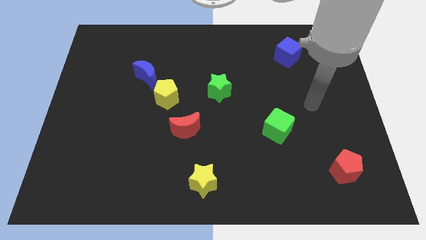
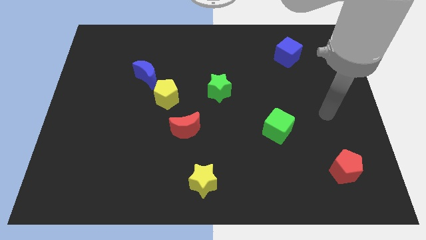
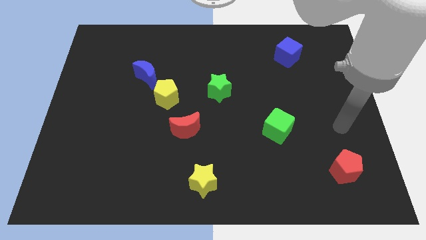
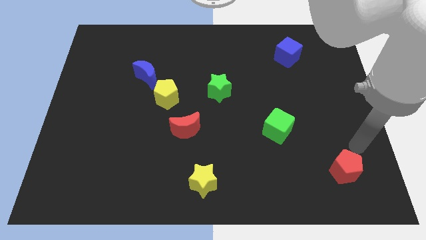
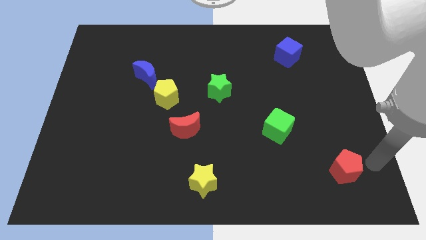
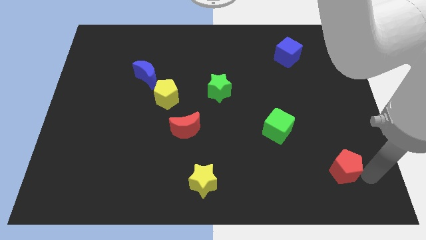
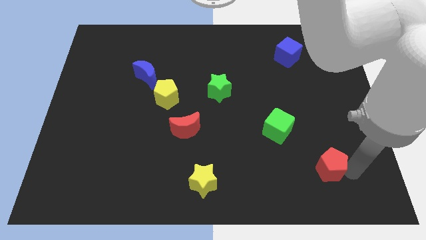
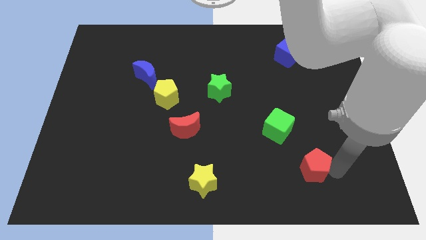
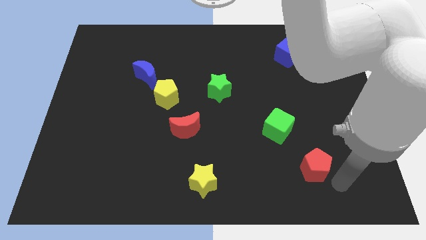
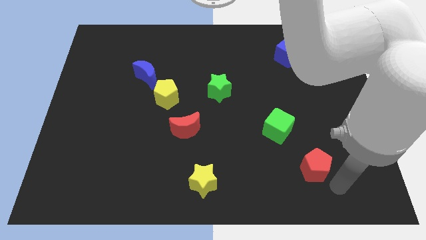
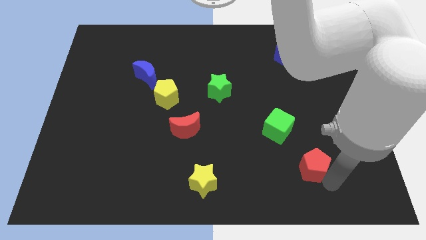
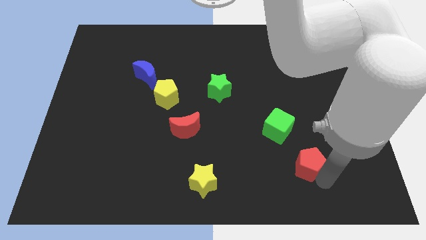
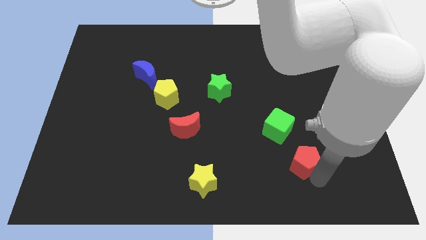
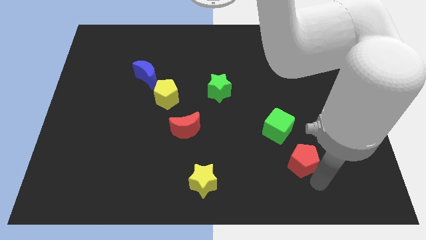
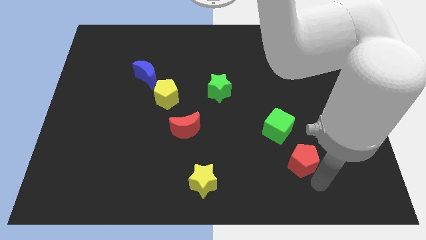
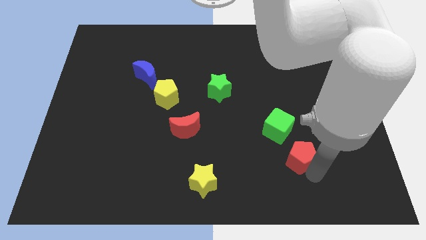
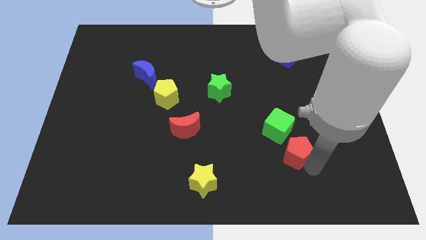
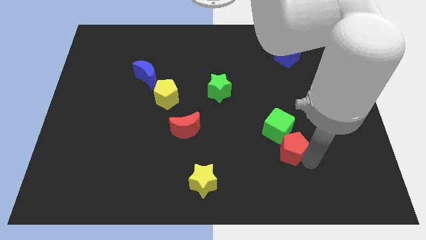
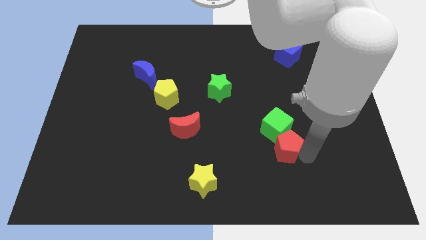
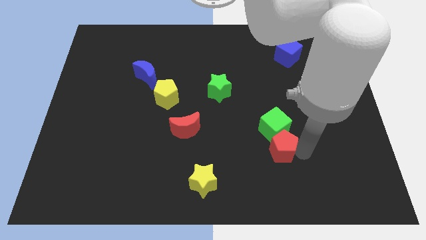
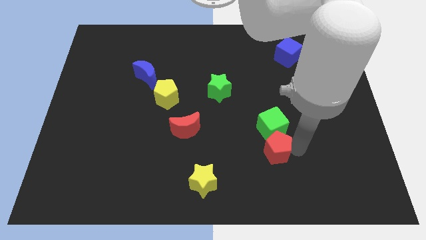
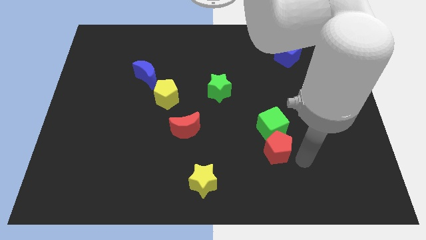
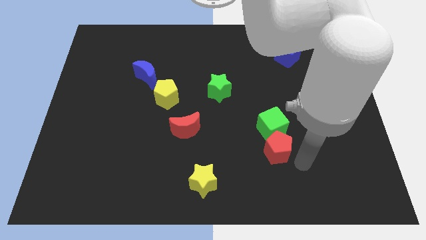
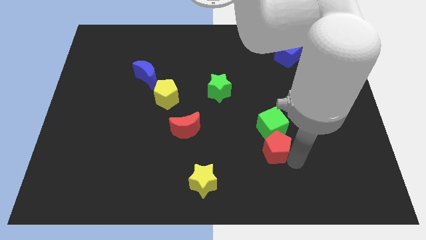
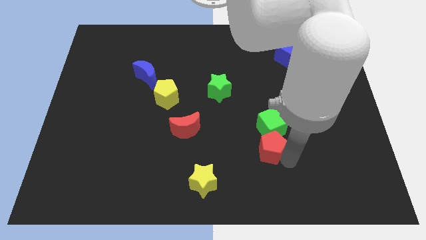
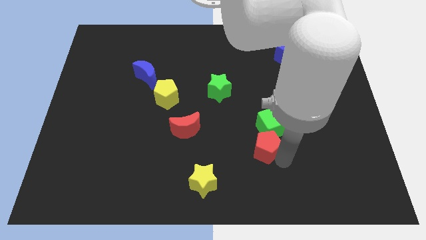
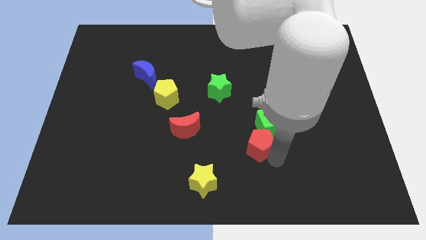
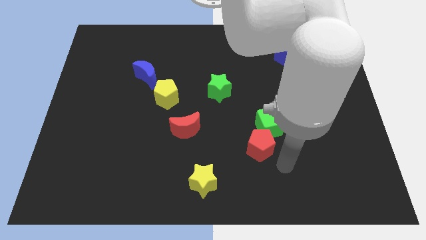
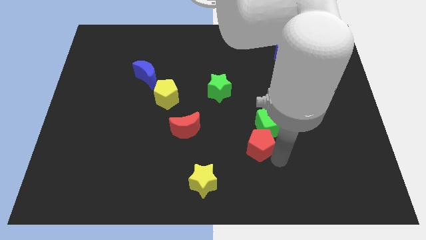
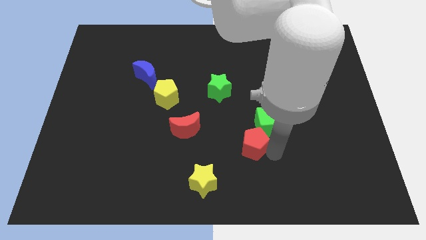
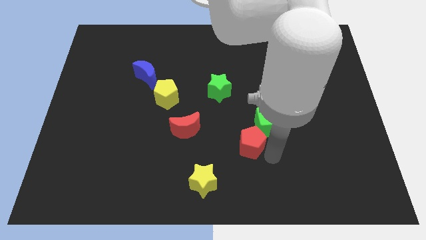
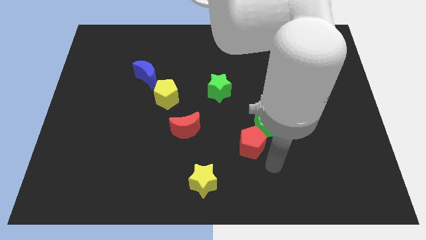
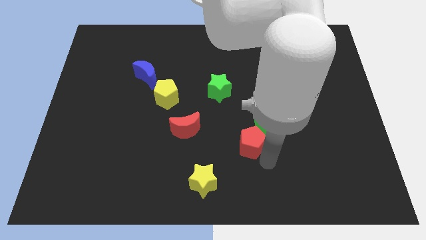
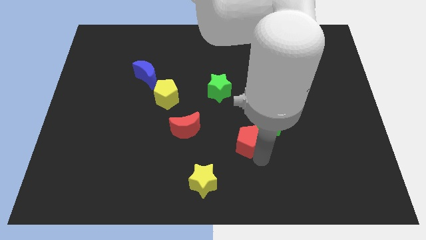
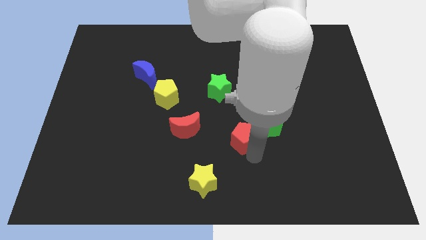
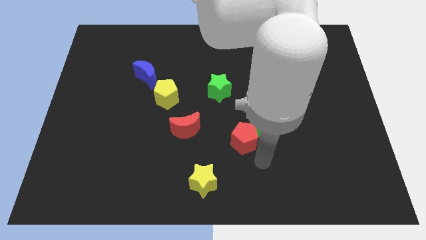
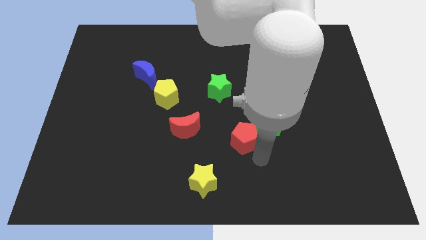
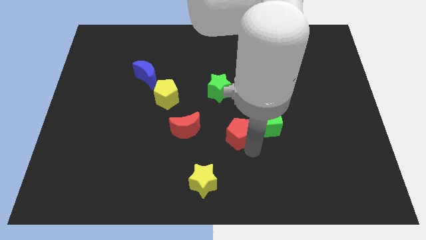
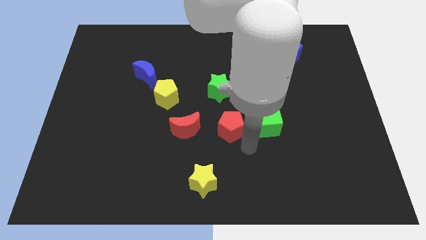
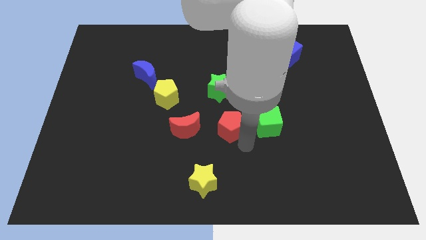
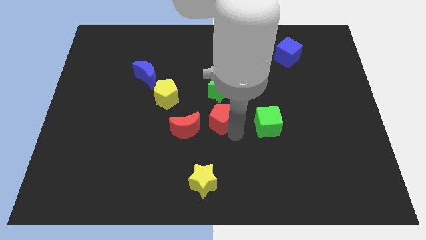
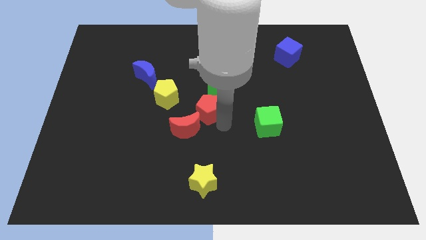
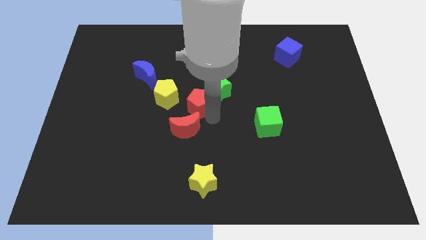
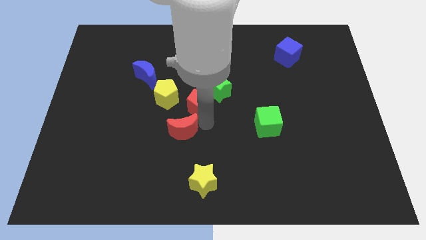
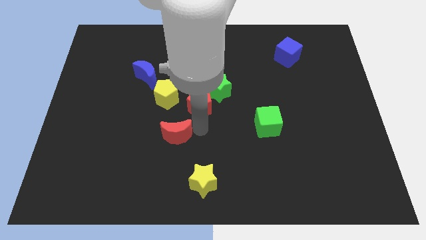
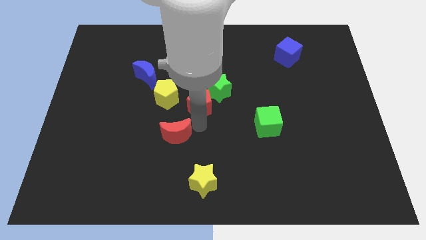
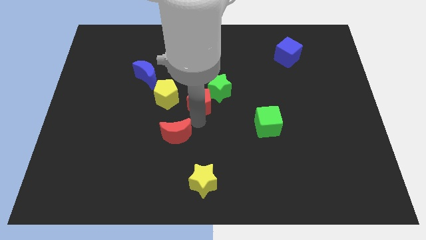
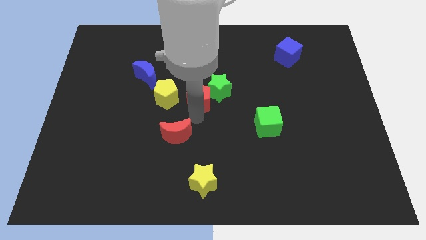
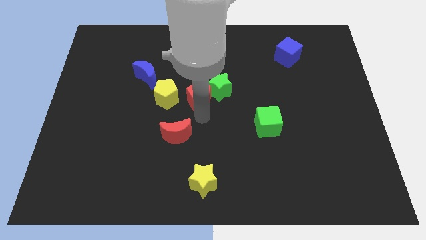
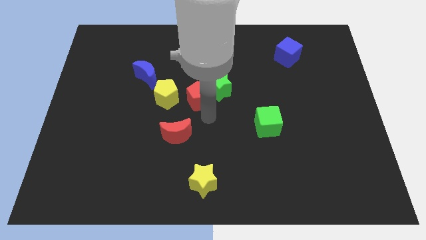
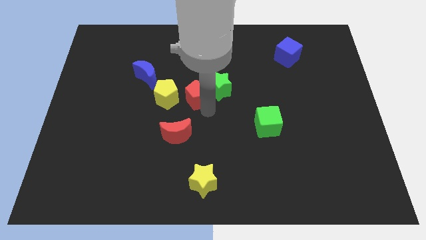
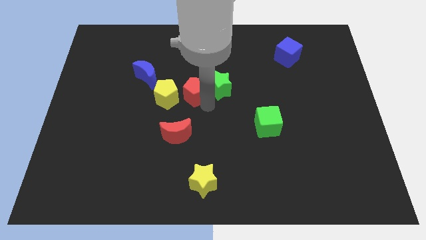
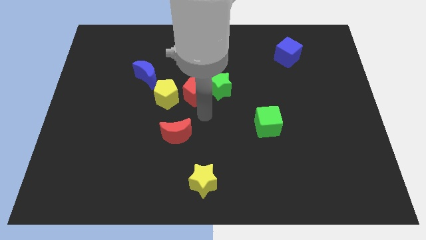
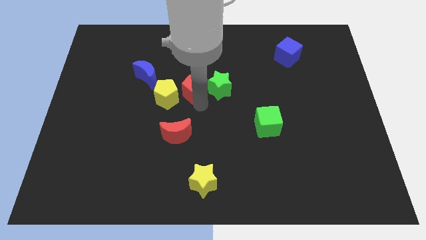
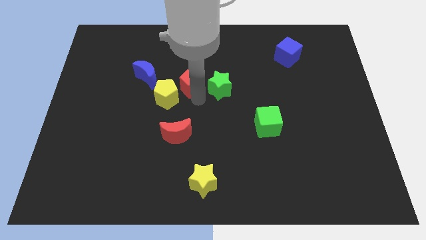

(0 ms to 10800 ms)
put the red pentagon to the right side of the blue moon

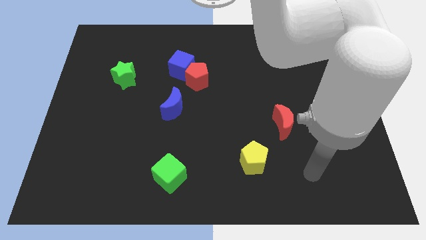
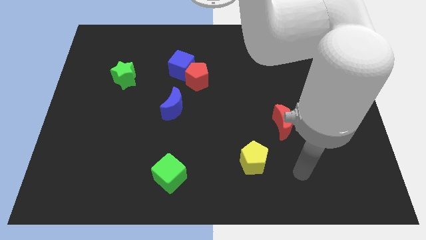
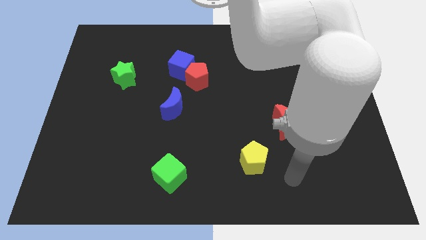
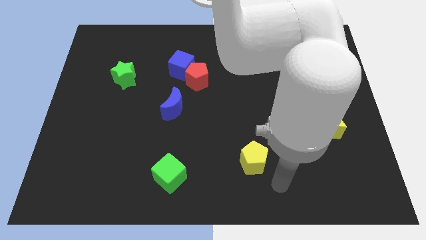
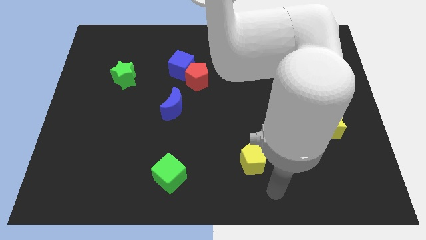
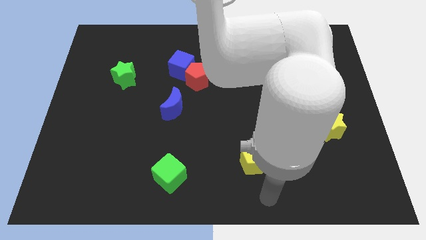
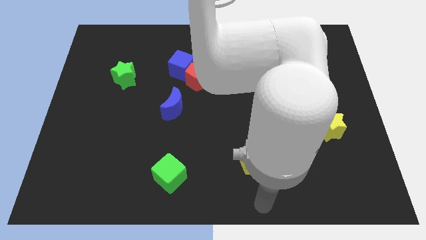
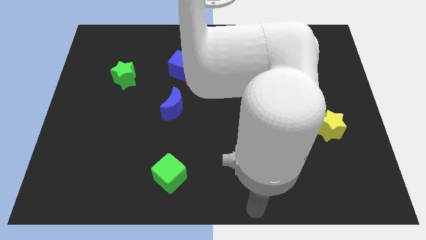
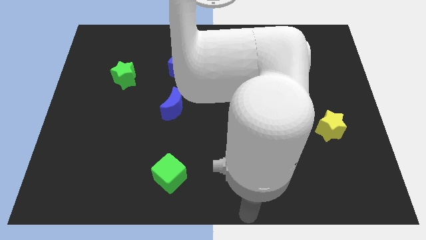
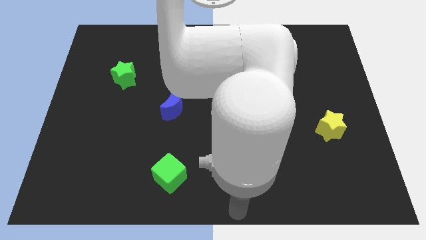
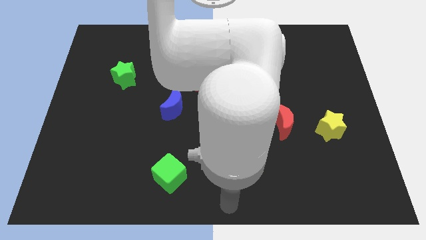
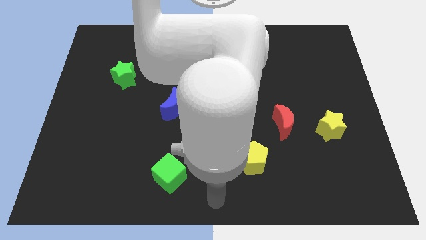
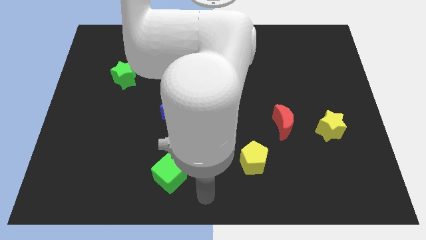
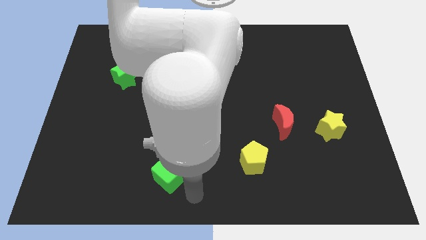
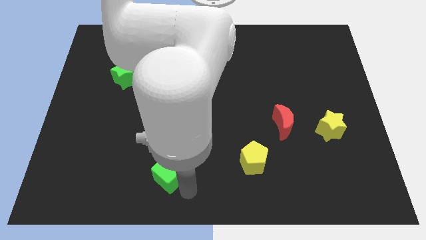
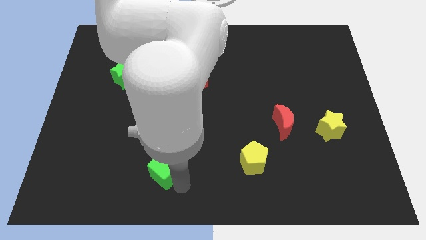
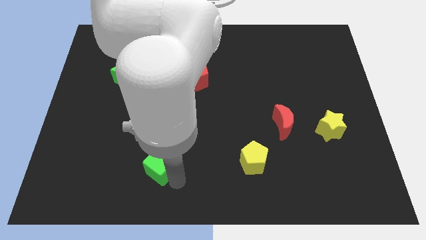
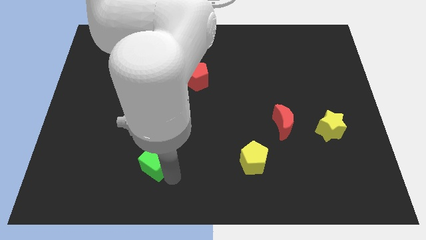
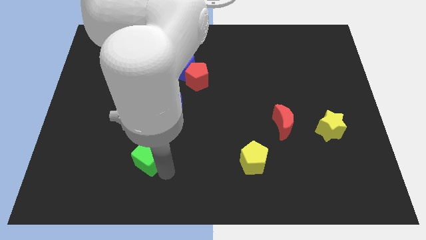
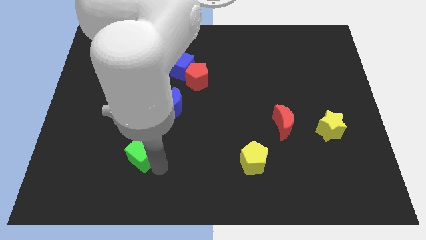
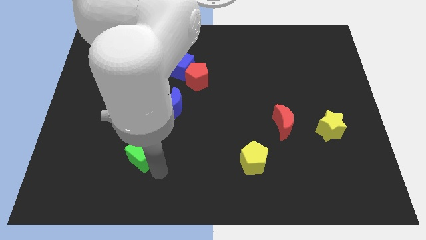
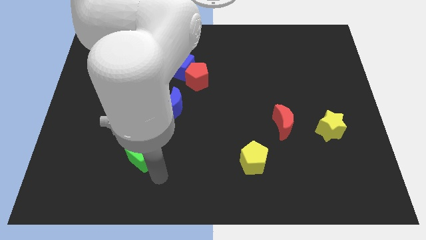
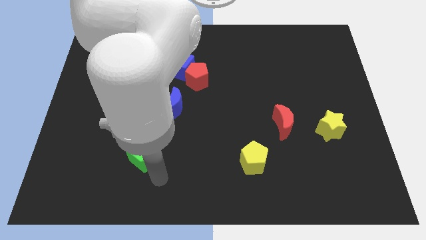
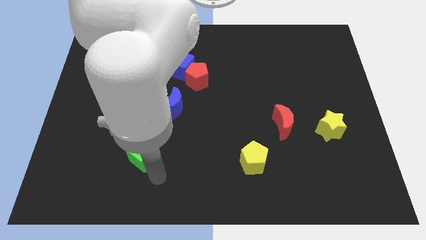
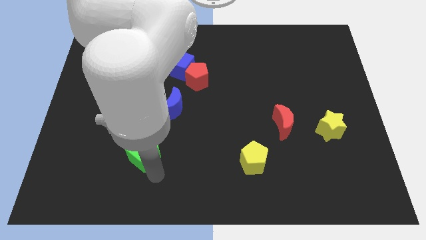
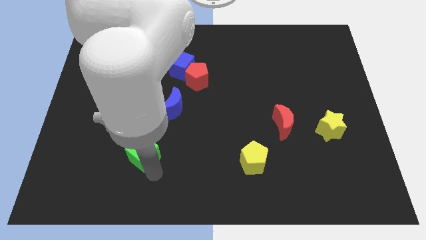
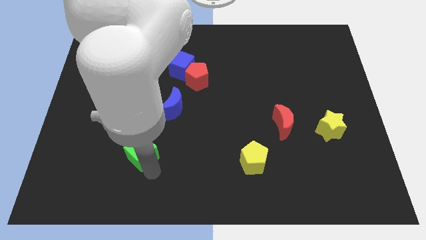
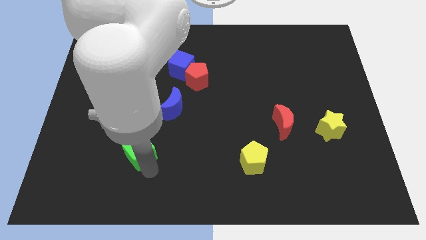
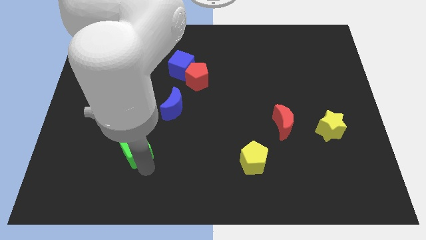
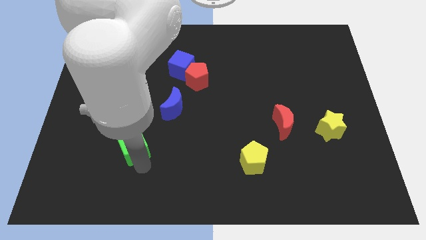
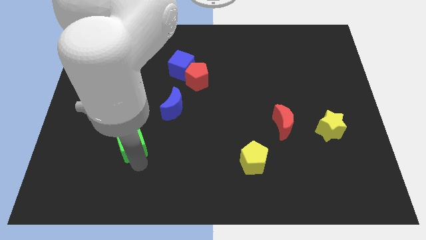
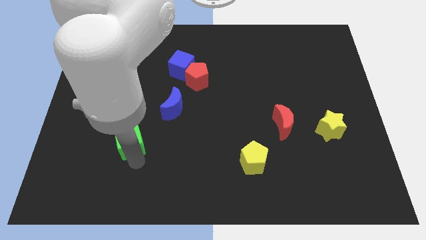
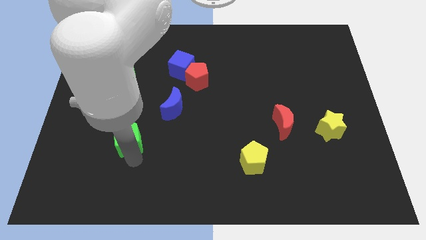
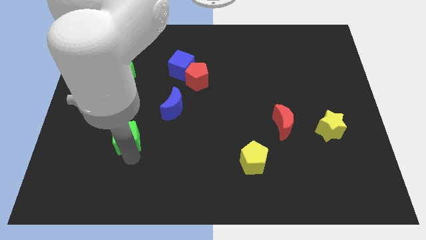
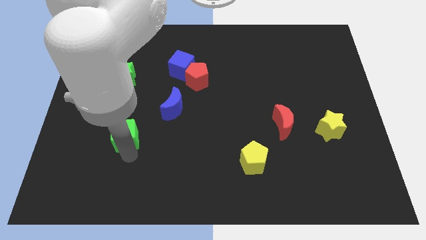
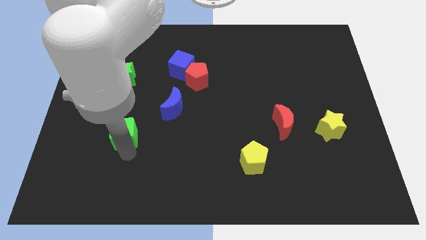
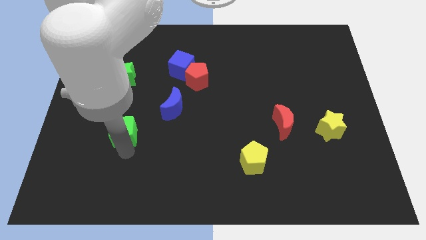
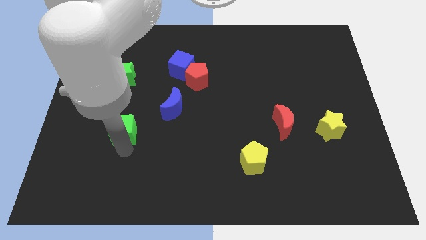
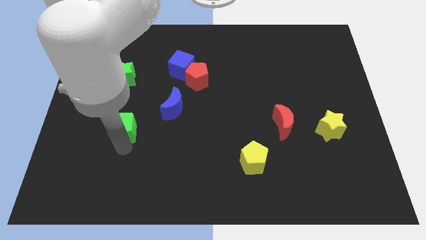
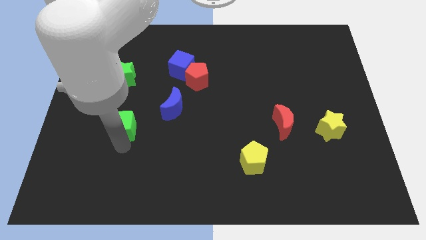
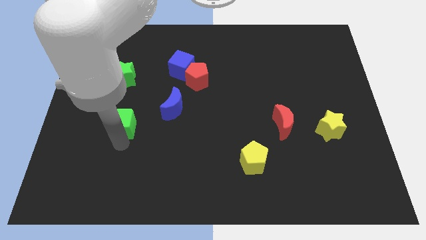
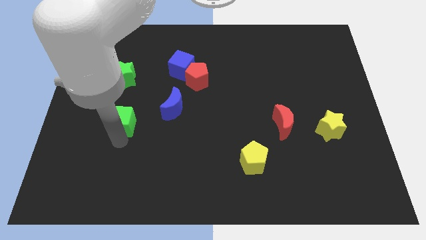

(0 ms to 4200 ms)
push the green cube to the left side of the blue moon
